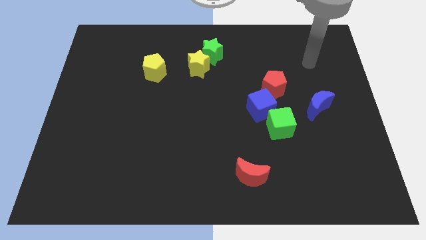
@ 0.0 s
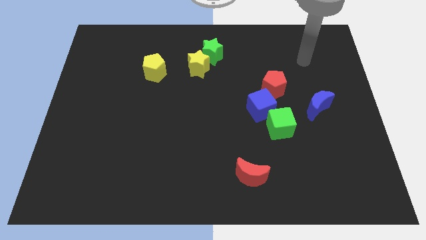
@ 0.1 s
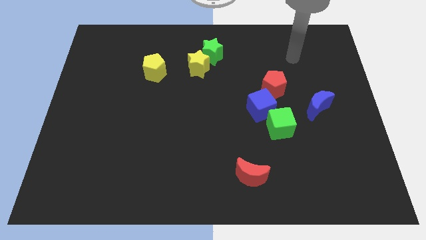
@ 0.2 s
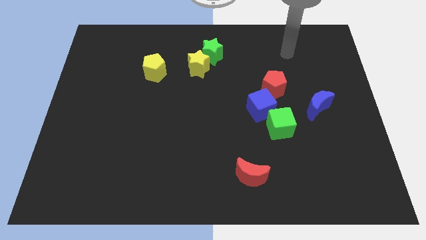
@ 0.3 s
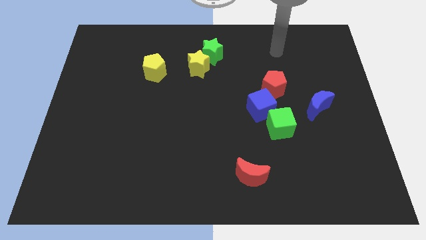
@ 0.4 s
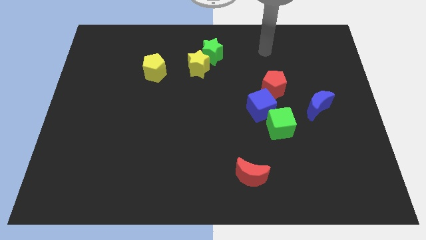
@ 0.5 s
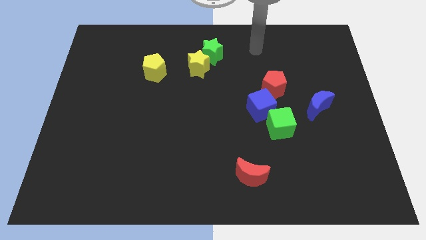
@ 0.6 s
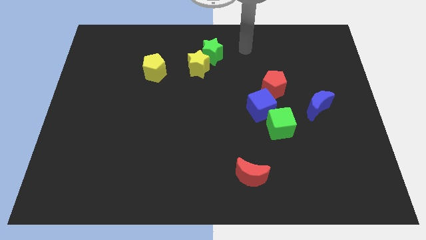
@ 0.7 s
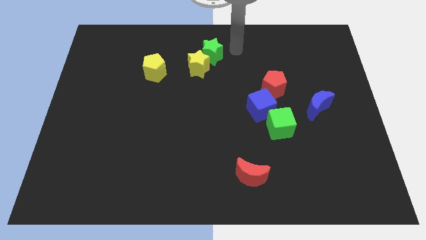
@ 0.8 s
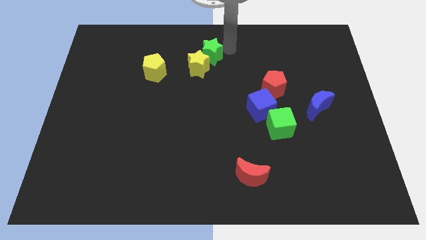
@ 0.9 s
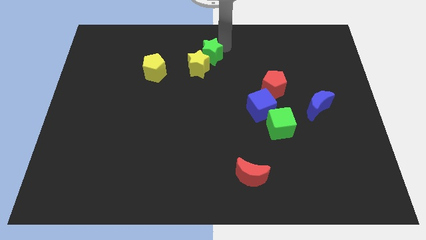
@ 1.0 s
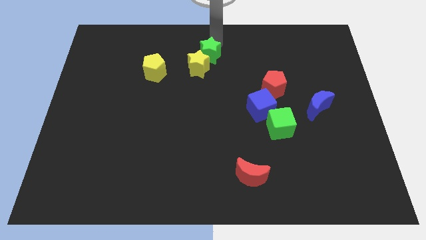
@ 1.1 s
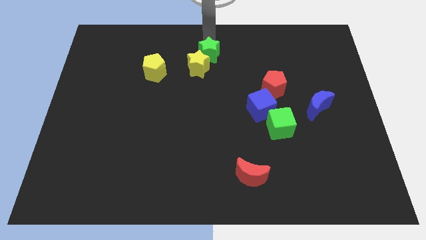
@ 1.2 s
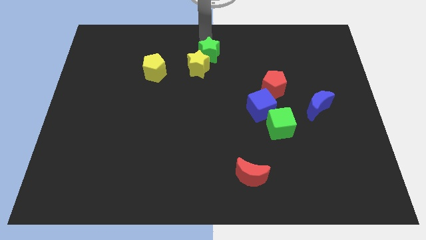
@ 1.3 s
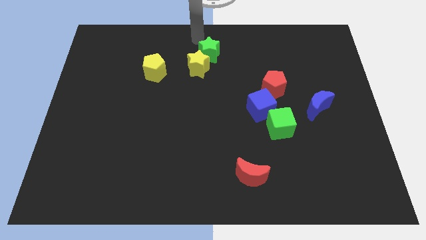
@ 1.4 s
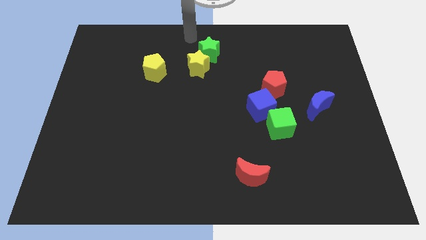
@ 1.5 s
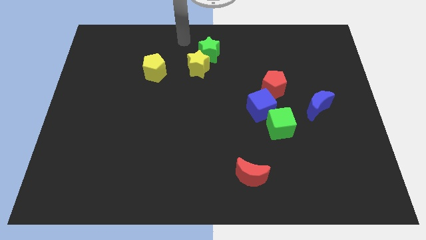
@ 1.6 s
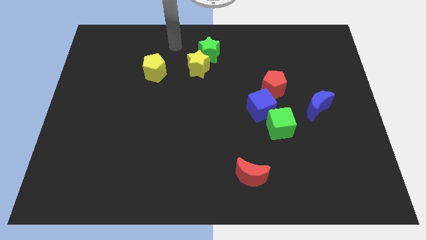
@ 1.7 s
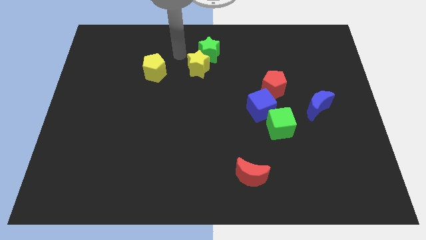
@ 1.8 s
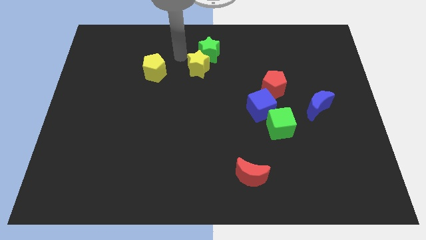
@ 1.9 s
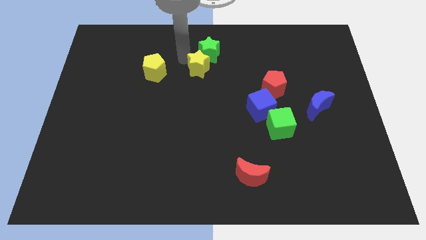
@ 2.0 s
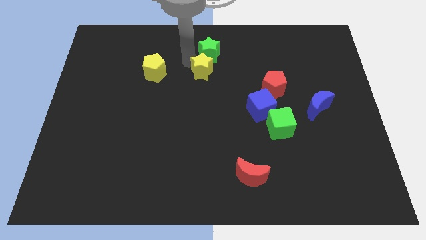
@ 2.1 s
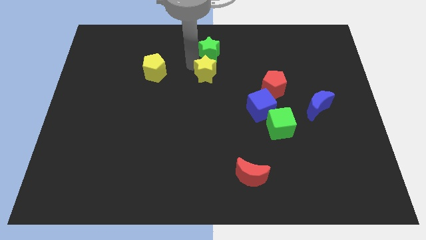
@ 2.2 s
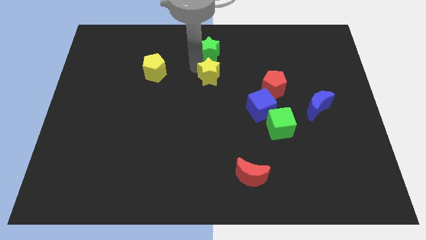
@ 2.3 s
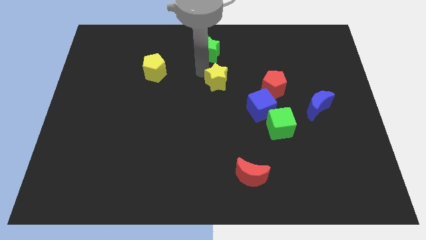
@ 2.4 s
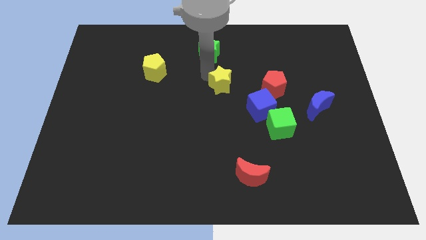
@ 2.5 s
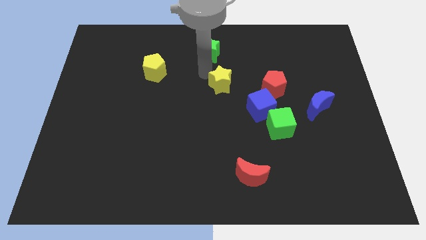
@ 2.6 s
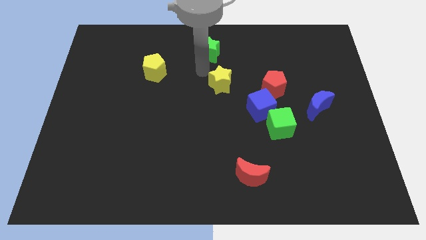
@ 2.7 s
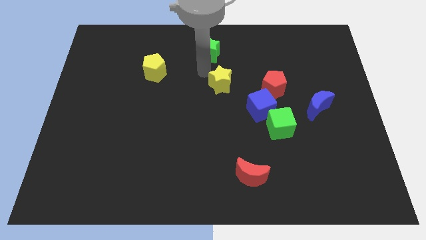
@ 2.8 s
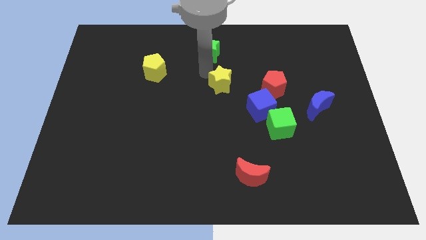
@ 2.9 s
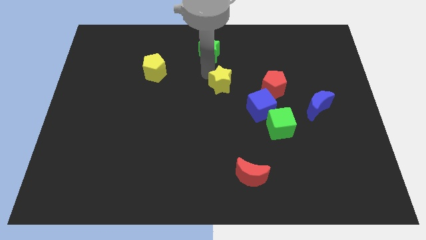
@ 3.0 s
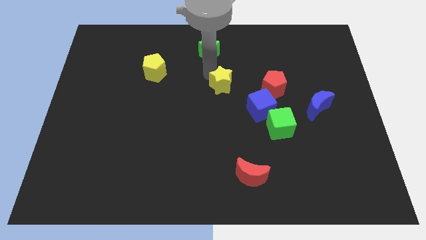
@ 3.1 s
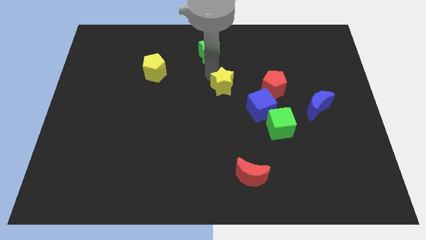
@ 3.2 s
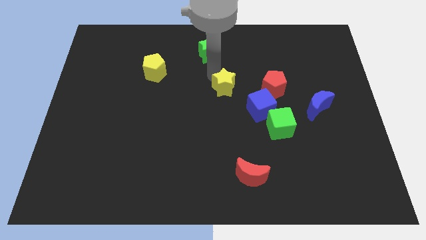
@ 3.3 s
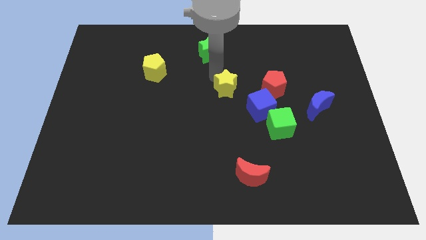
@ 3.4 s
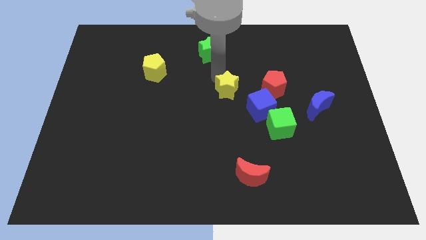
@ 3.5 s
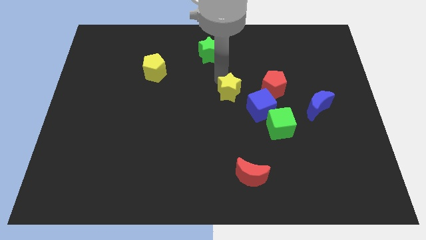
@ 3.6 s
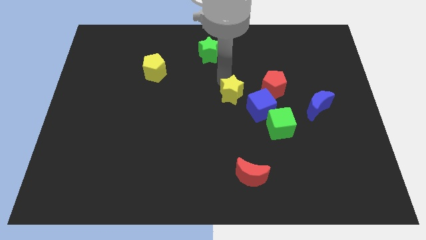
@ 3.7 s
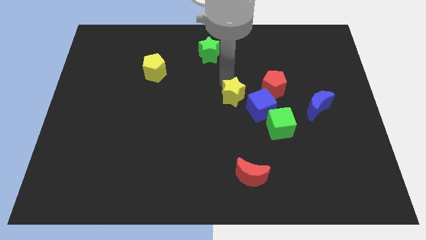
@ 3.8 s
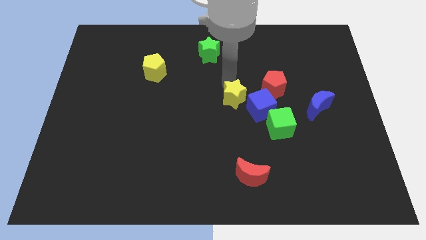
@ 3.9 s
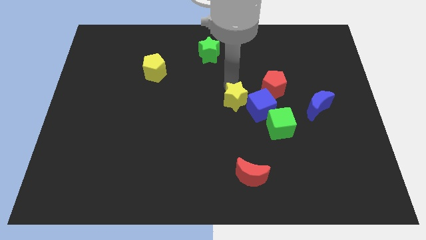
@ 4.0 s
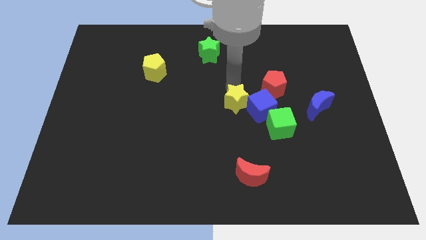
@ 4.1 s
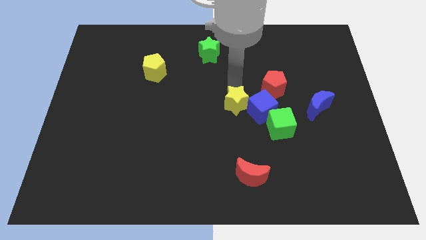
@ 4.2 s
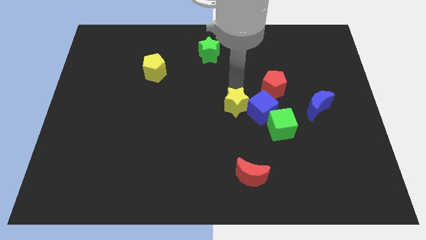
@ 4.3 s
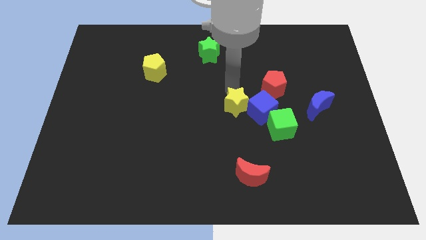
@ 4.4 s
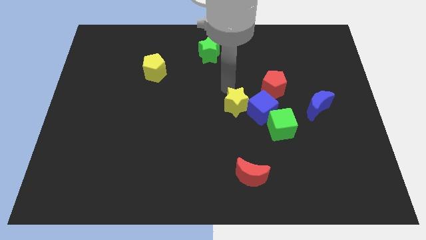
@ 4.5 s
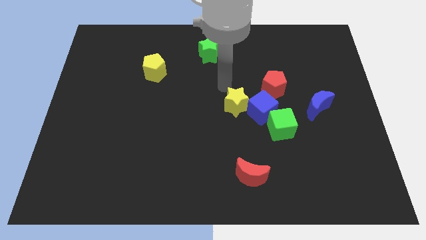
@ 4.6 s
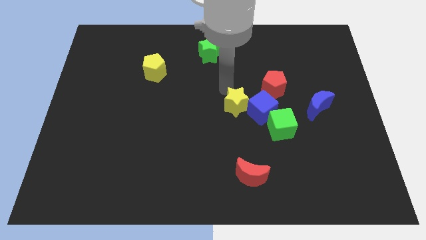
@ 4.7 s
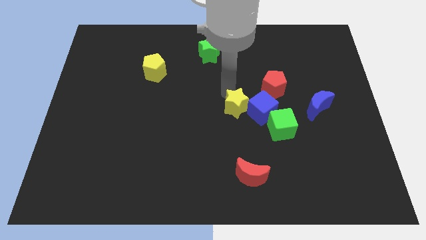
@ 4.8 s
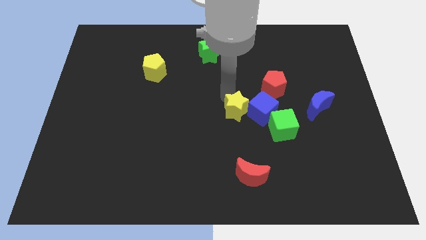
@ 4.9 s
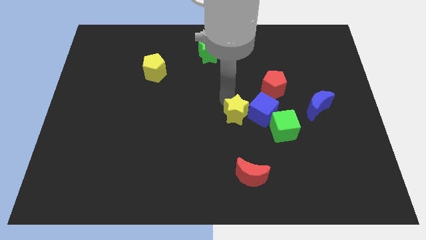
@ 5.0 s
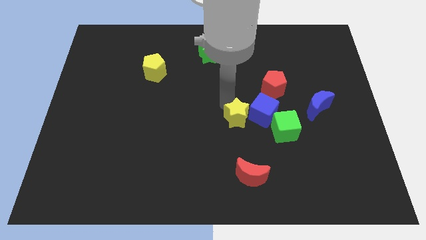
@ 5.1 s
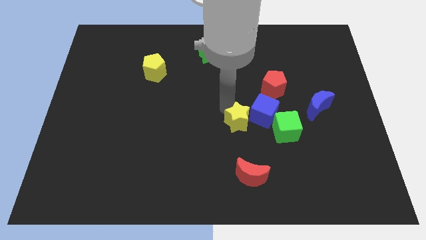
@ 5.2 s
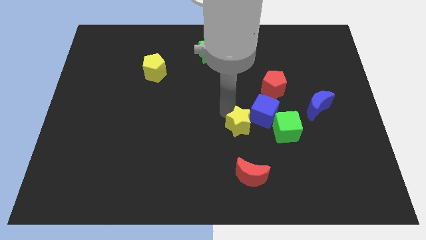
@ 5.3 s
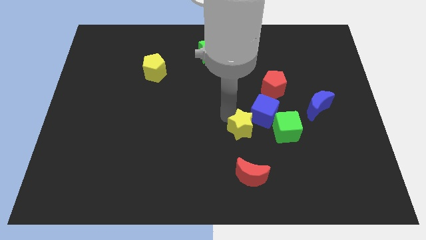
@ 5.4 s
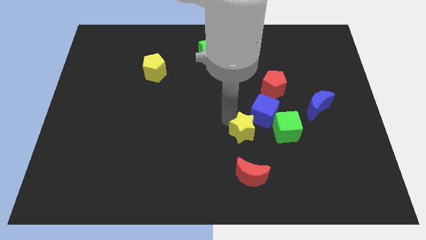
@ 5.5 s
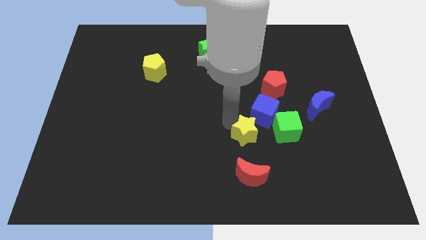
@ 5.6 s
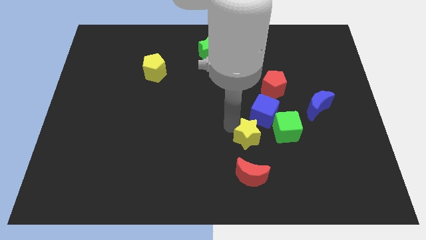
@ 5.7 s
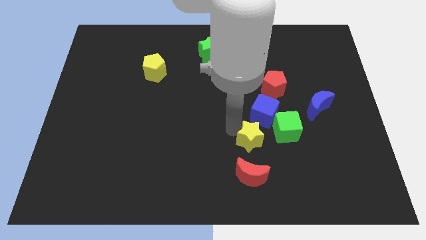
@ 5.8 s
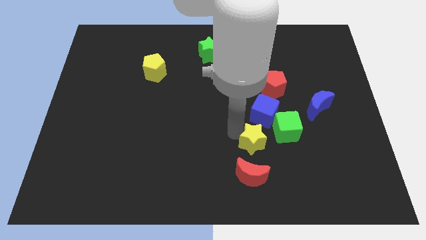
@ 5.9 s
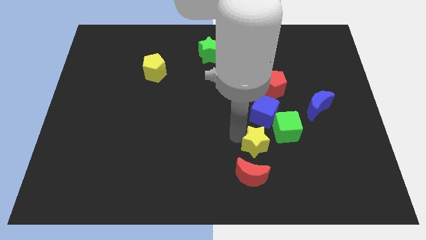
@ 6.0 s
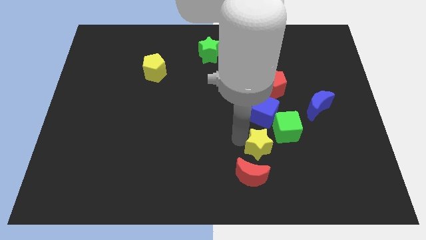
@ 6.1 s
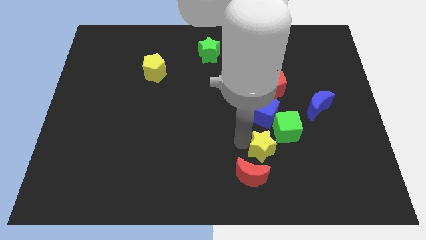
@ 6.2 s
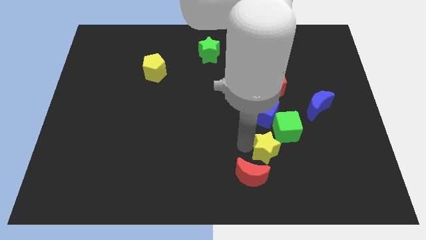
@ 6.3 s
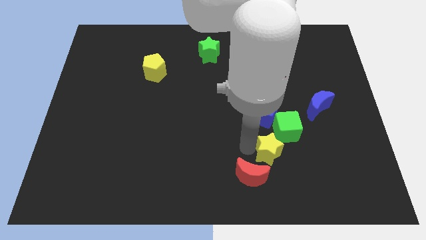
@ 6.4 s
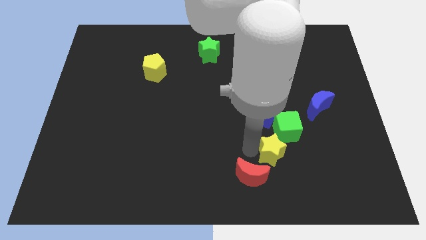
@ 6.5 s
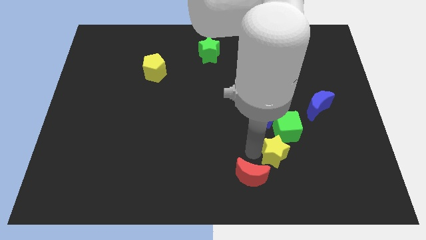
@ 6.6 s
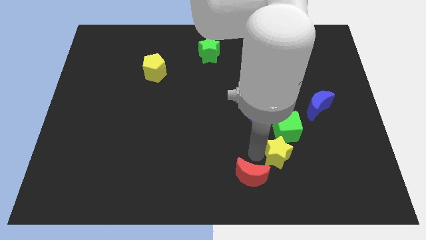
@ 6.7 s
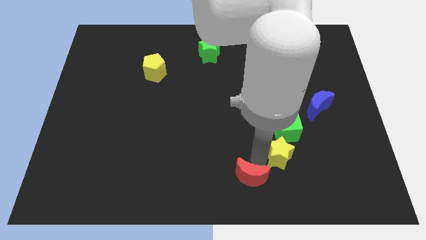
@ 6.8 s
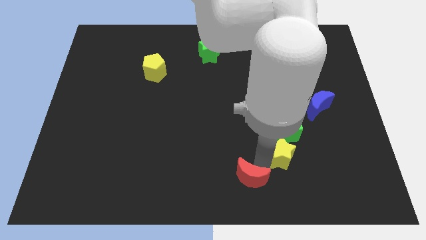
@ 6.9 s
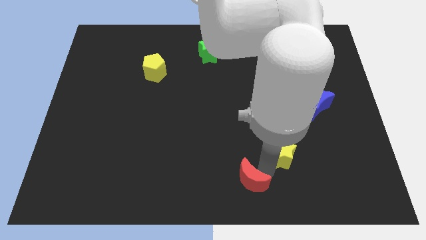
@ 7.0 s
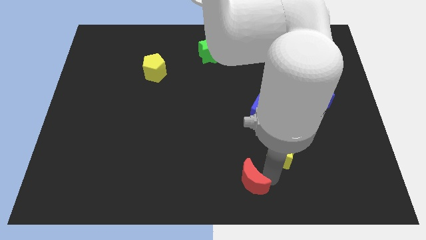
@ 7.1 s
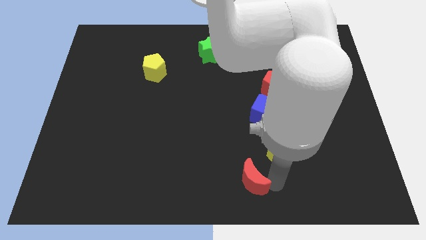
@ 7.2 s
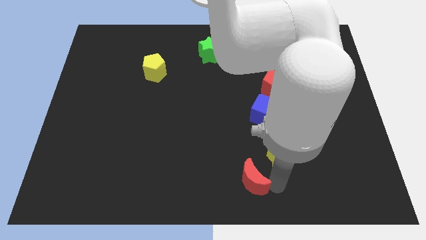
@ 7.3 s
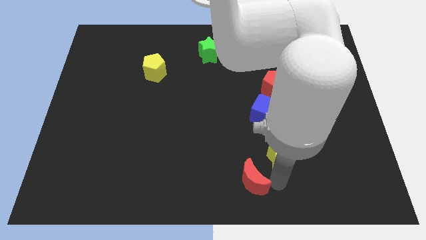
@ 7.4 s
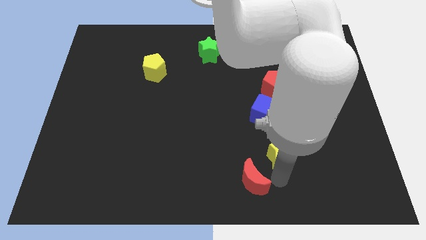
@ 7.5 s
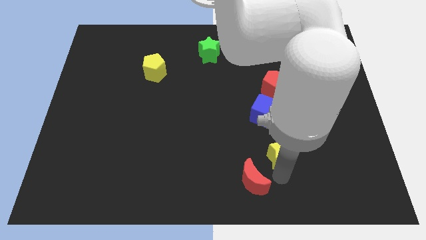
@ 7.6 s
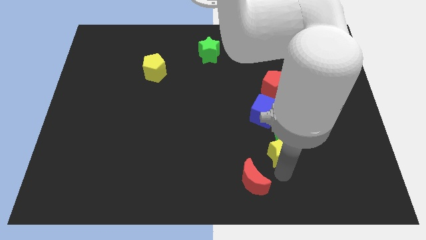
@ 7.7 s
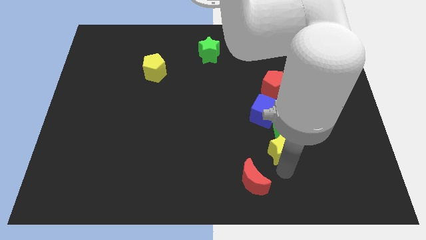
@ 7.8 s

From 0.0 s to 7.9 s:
move the yellow star close to the green cube
